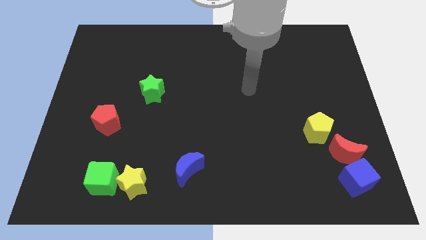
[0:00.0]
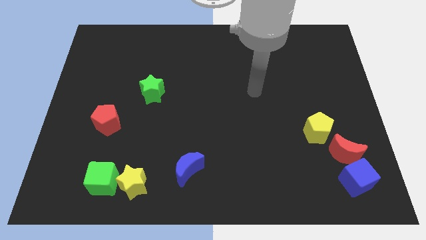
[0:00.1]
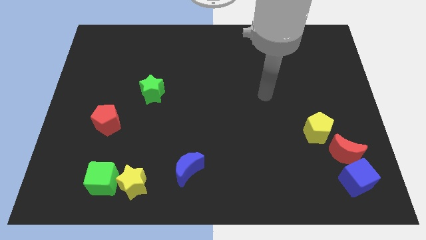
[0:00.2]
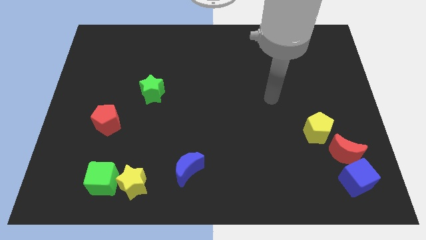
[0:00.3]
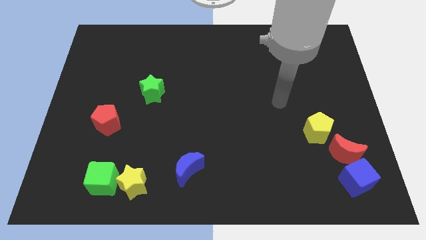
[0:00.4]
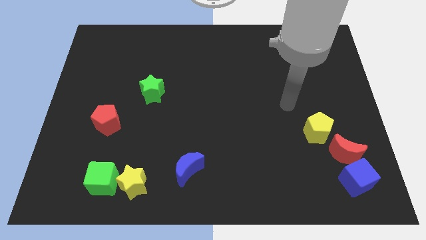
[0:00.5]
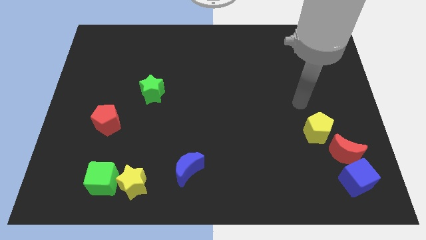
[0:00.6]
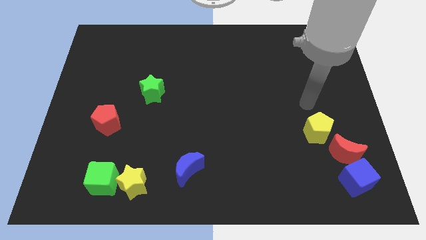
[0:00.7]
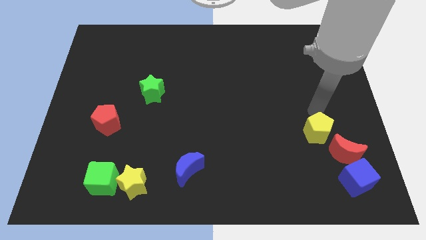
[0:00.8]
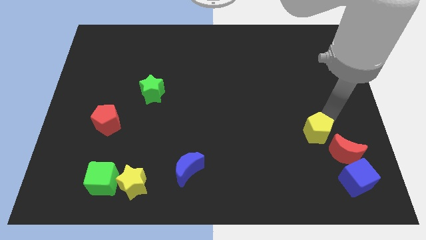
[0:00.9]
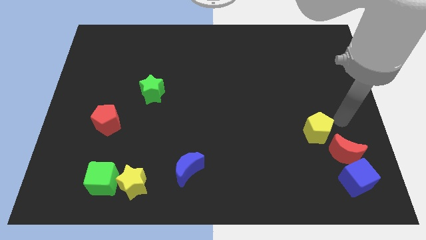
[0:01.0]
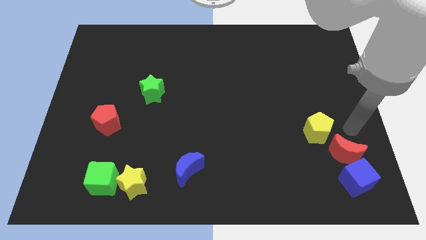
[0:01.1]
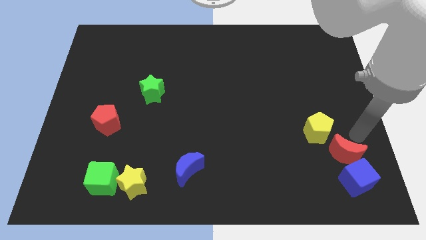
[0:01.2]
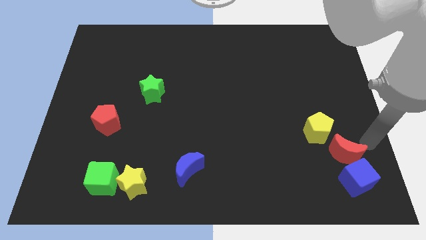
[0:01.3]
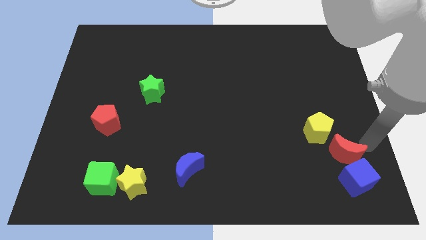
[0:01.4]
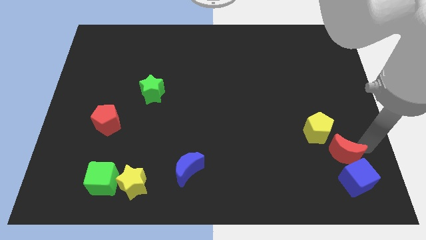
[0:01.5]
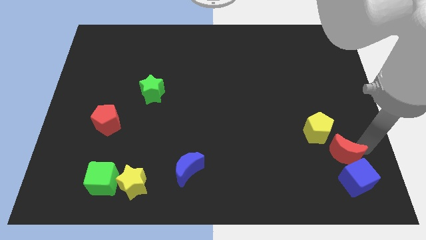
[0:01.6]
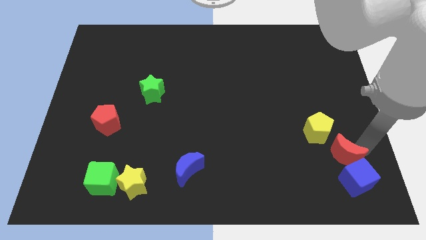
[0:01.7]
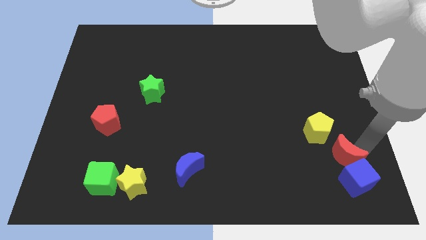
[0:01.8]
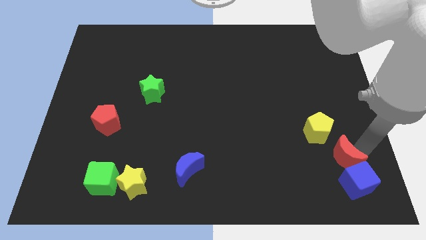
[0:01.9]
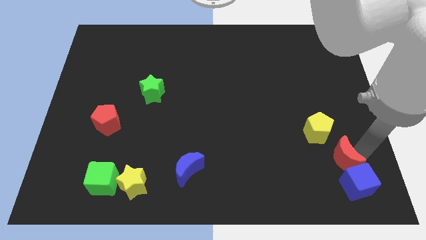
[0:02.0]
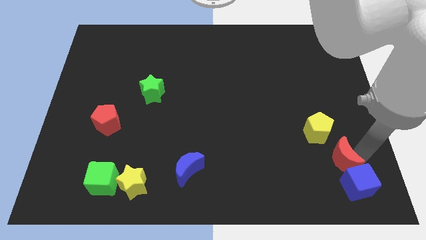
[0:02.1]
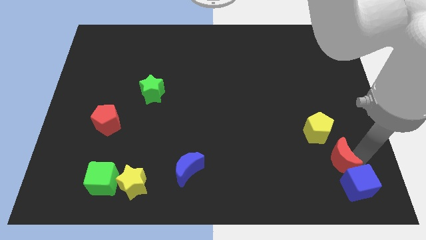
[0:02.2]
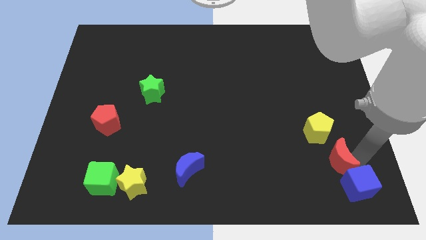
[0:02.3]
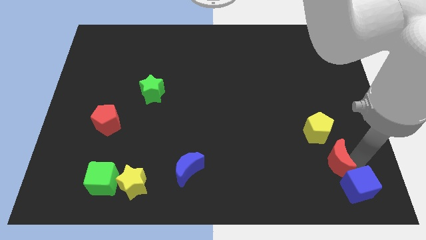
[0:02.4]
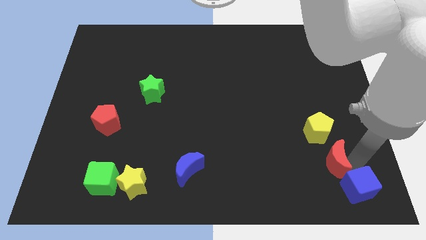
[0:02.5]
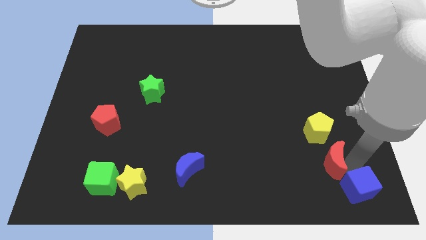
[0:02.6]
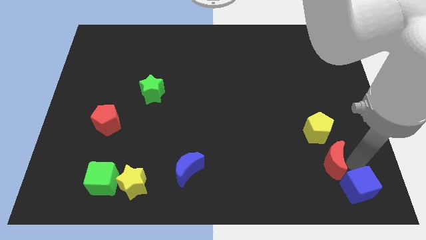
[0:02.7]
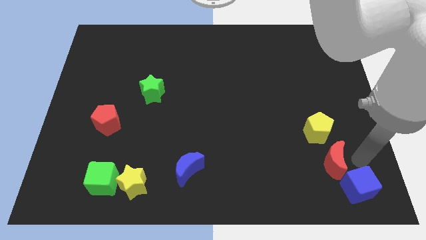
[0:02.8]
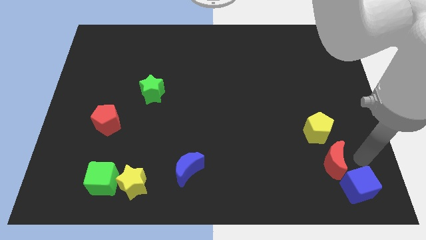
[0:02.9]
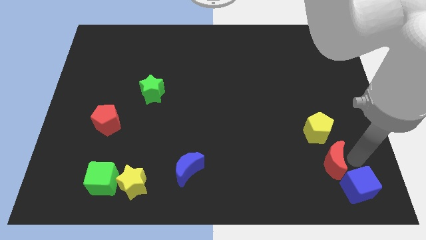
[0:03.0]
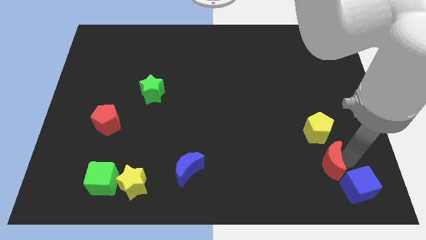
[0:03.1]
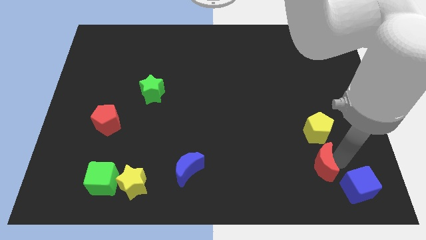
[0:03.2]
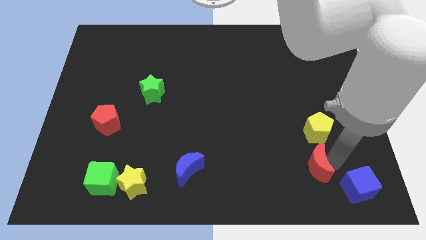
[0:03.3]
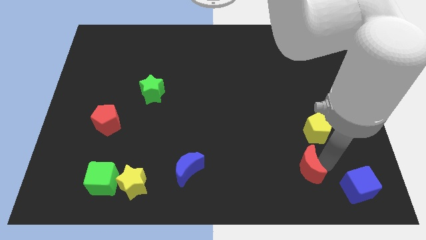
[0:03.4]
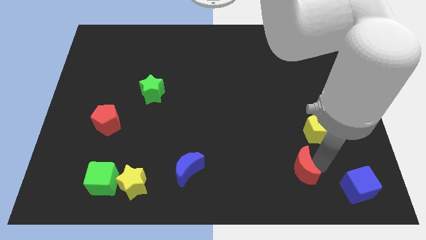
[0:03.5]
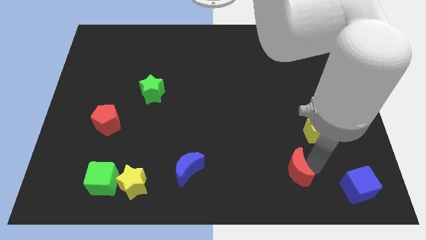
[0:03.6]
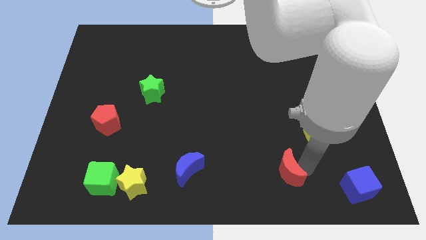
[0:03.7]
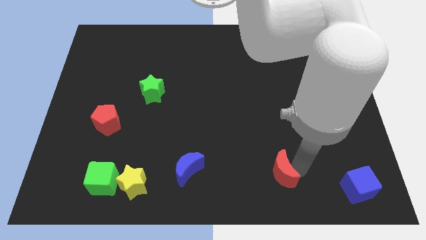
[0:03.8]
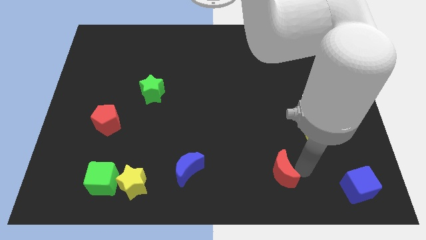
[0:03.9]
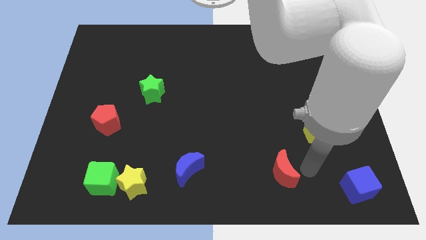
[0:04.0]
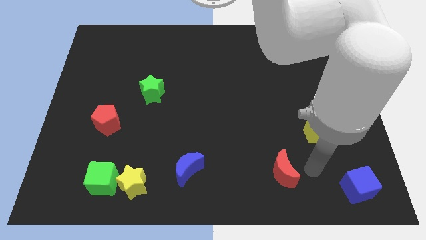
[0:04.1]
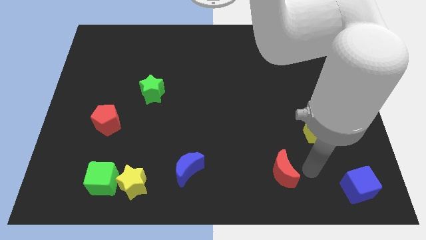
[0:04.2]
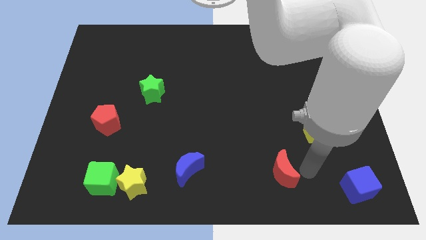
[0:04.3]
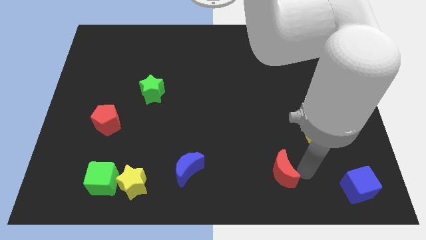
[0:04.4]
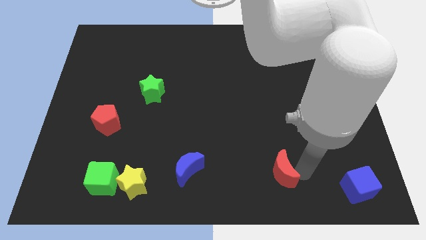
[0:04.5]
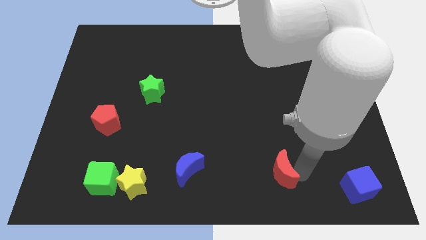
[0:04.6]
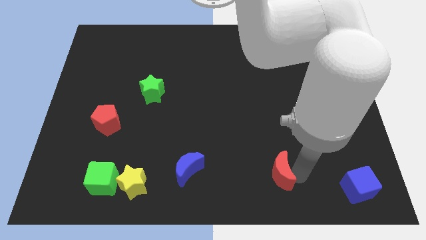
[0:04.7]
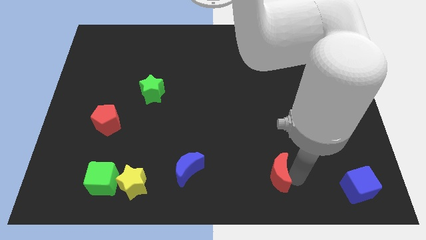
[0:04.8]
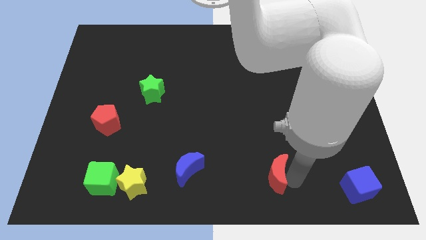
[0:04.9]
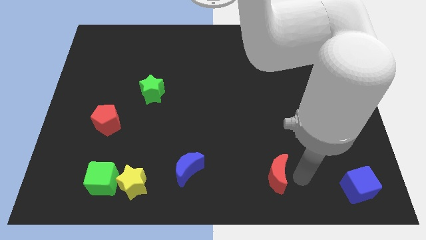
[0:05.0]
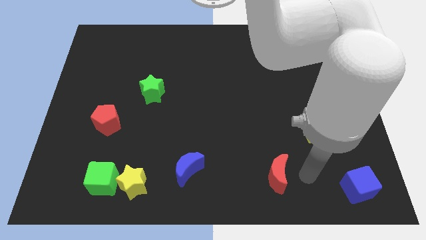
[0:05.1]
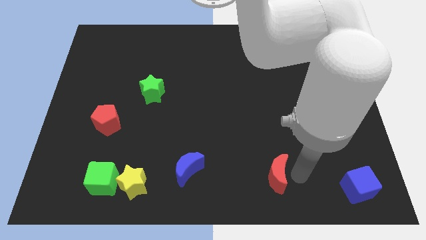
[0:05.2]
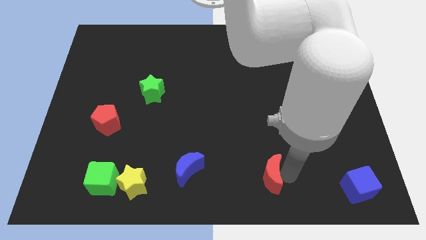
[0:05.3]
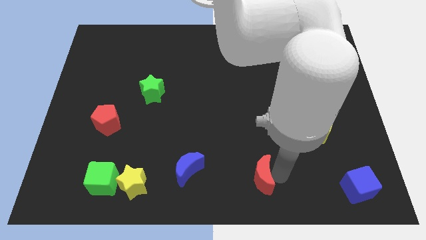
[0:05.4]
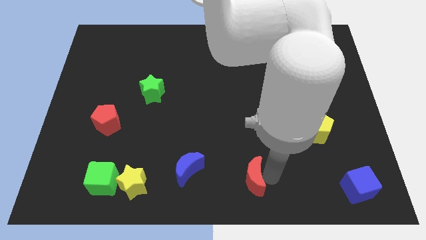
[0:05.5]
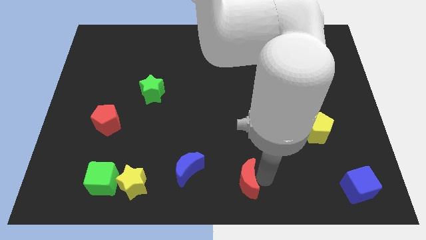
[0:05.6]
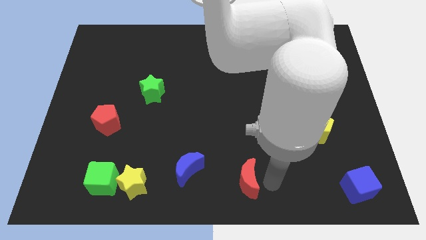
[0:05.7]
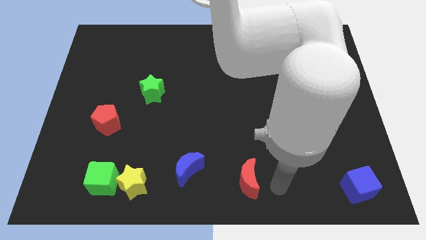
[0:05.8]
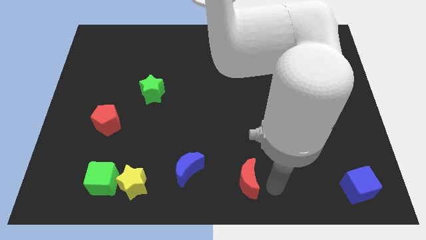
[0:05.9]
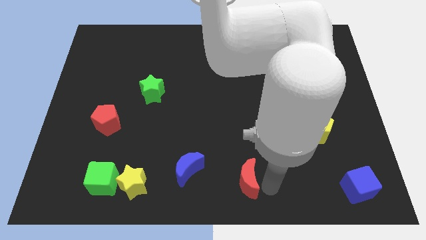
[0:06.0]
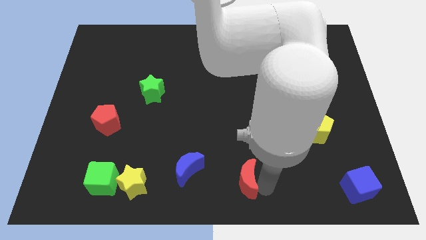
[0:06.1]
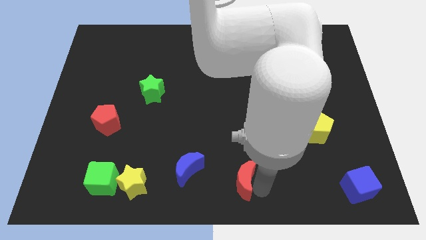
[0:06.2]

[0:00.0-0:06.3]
move the red moon left

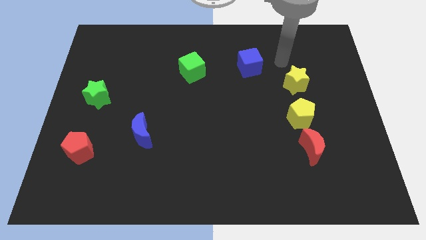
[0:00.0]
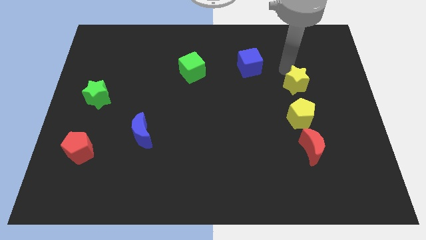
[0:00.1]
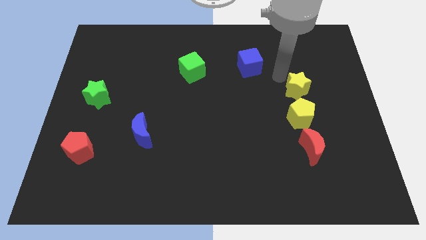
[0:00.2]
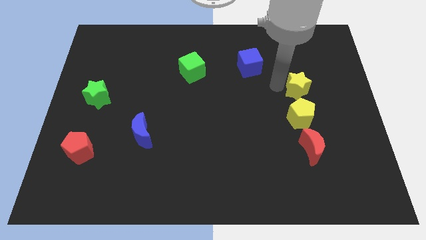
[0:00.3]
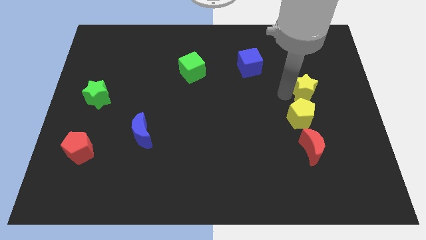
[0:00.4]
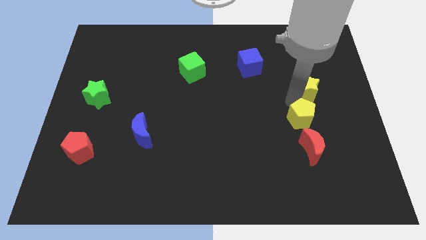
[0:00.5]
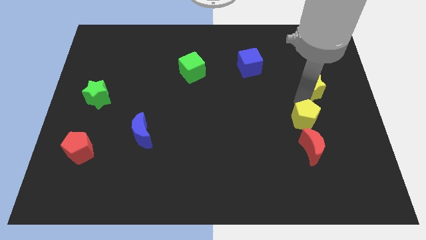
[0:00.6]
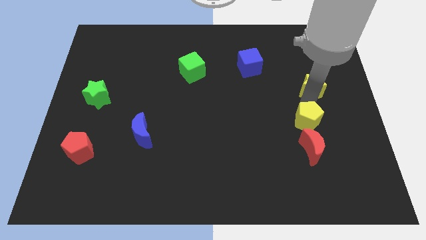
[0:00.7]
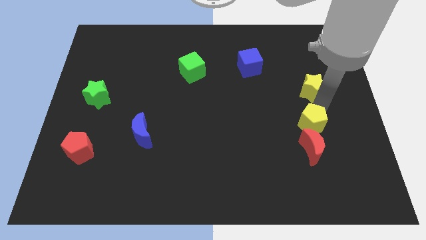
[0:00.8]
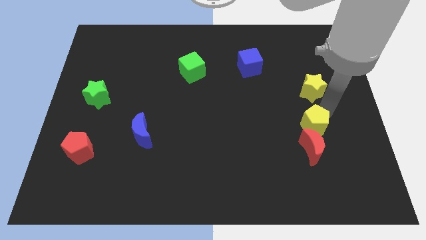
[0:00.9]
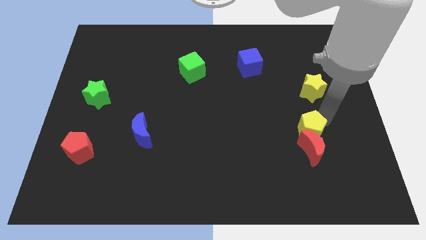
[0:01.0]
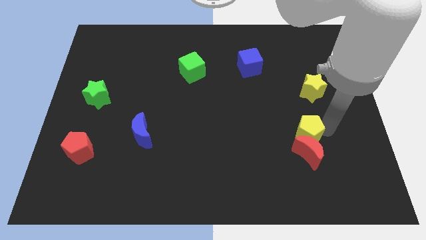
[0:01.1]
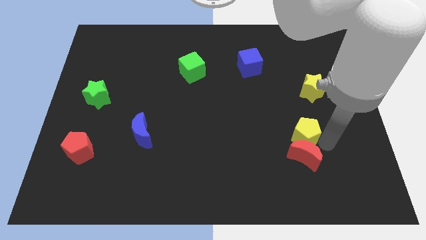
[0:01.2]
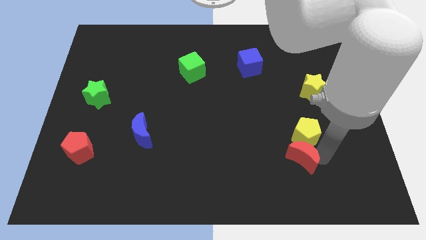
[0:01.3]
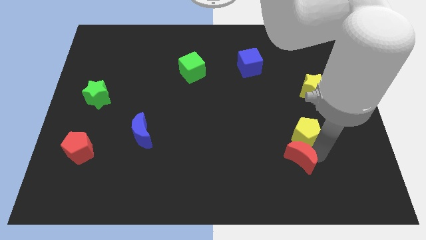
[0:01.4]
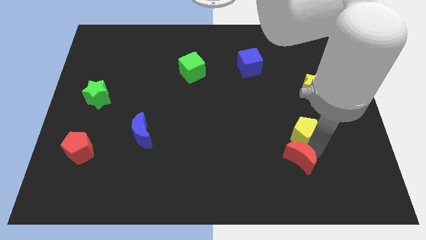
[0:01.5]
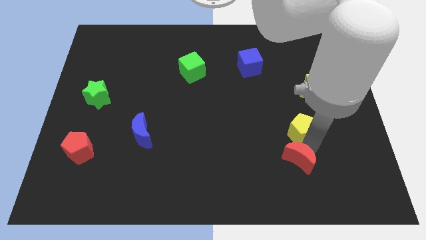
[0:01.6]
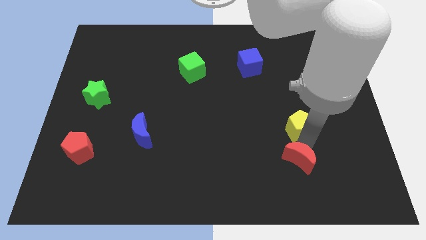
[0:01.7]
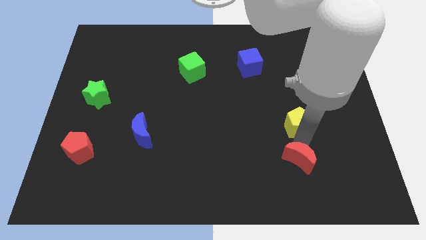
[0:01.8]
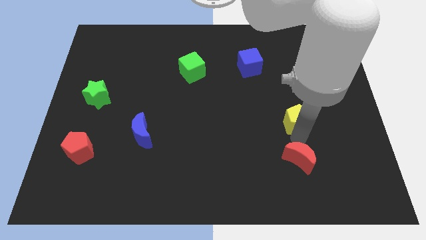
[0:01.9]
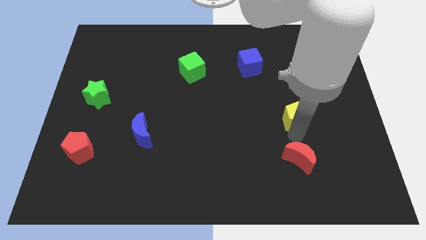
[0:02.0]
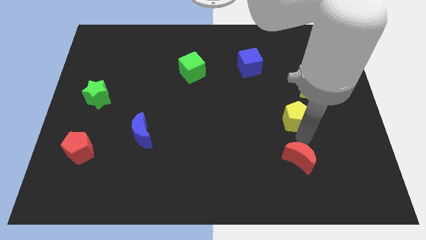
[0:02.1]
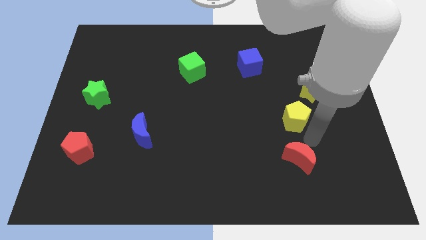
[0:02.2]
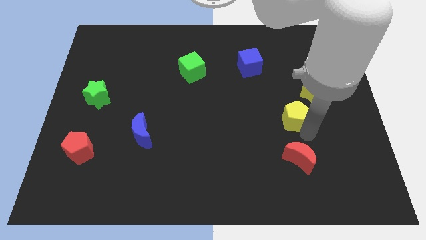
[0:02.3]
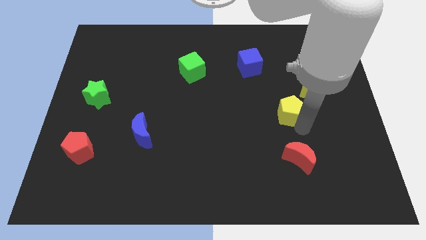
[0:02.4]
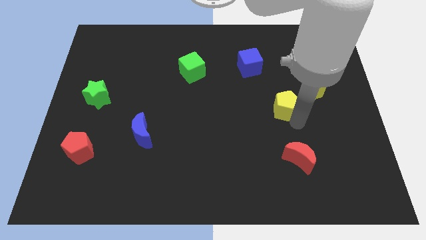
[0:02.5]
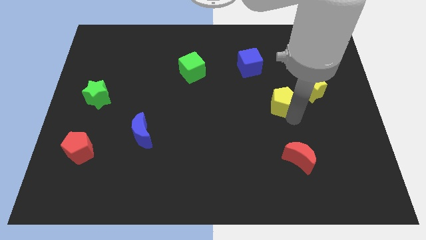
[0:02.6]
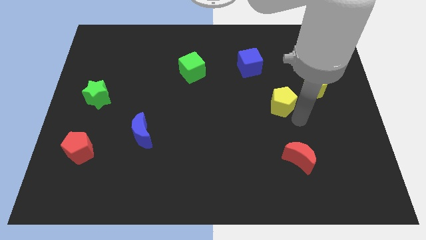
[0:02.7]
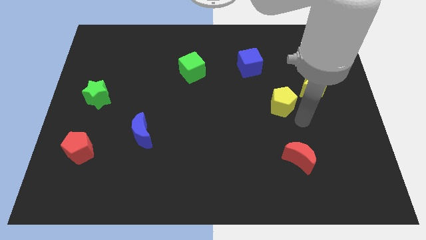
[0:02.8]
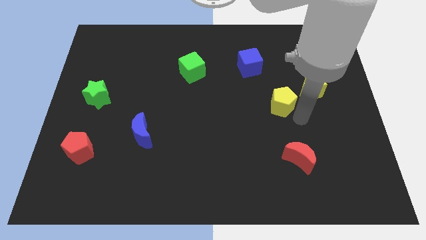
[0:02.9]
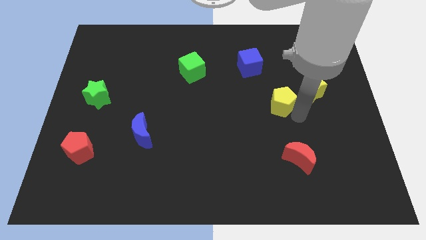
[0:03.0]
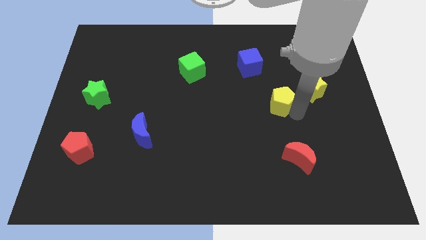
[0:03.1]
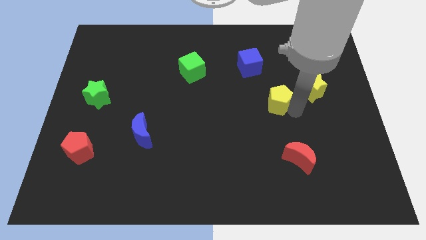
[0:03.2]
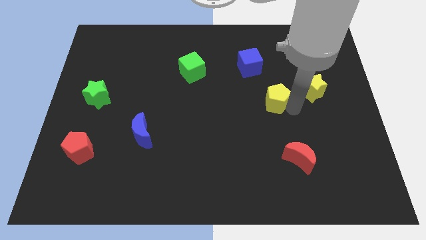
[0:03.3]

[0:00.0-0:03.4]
push the yellow pentagon diagonally upwards and left slightly
